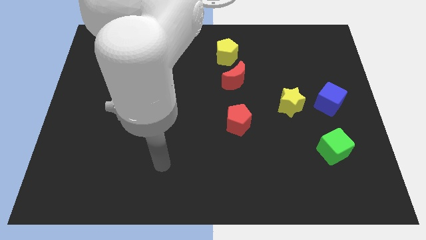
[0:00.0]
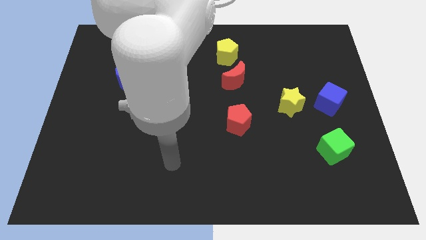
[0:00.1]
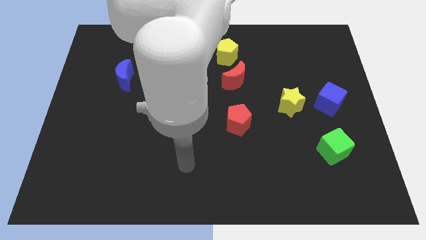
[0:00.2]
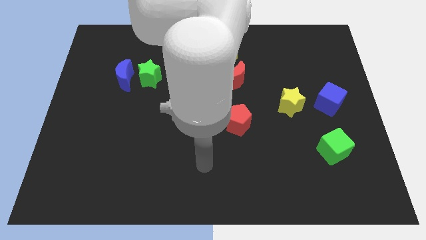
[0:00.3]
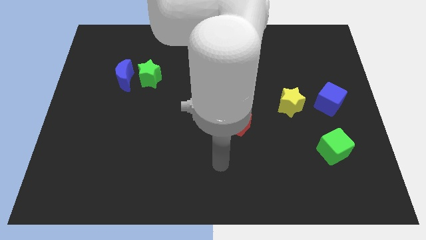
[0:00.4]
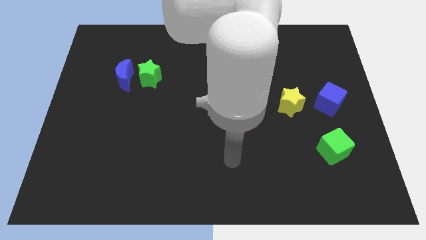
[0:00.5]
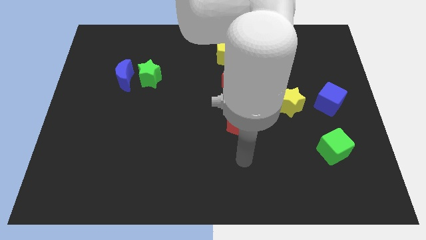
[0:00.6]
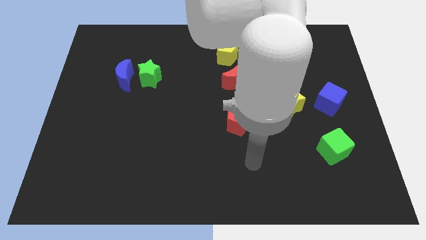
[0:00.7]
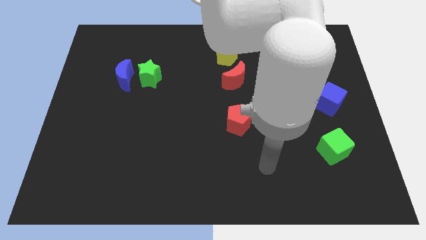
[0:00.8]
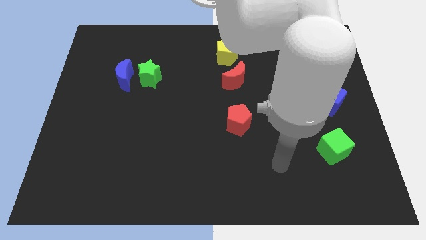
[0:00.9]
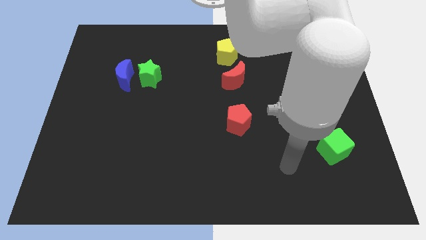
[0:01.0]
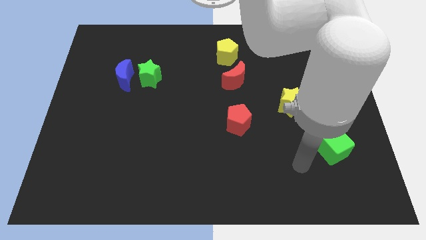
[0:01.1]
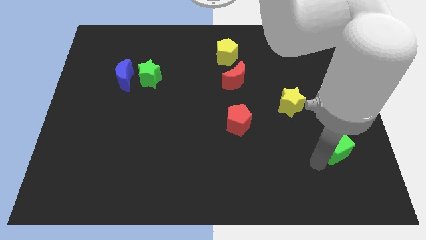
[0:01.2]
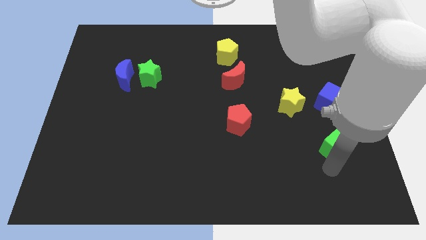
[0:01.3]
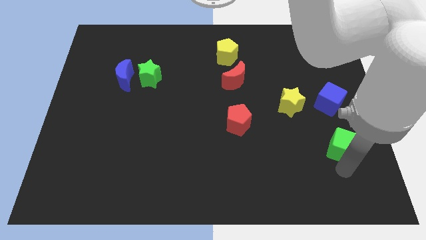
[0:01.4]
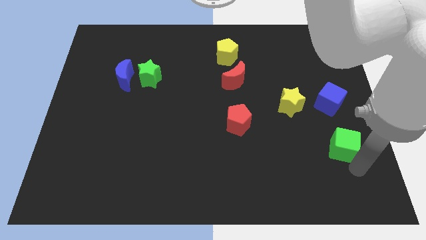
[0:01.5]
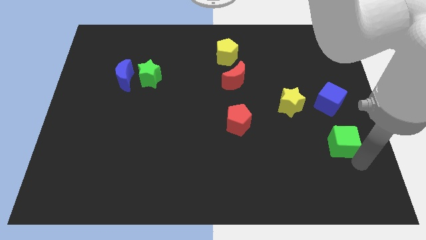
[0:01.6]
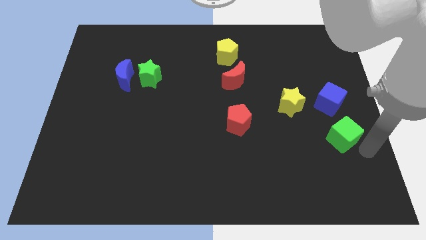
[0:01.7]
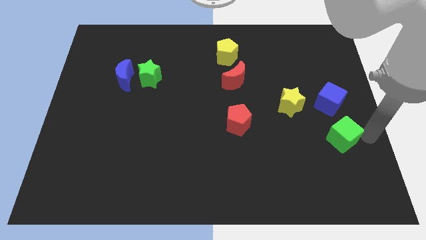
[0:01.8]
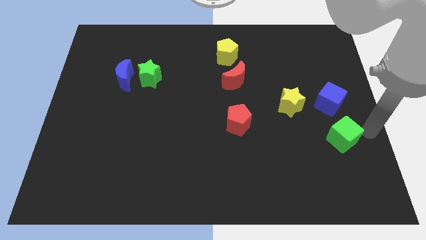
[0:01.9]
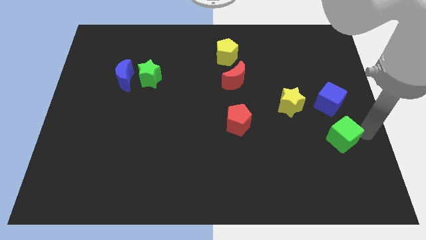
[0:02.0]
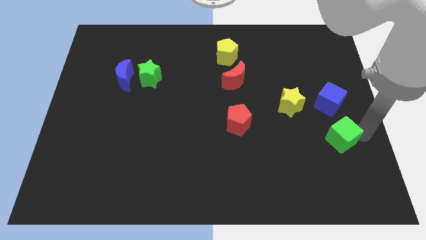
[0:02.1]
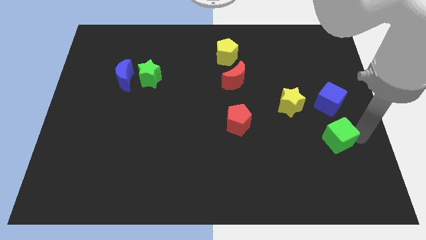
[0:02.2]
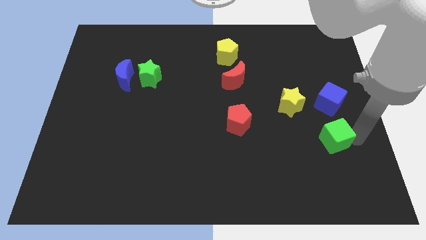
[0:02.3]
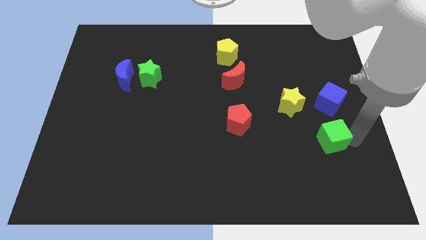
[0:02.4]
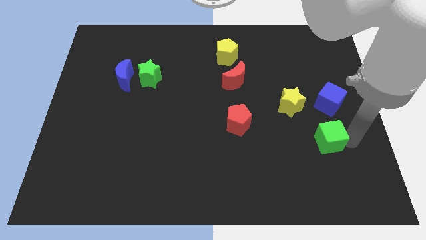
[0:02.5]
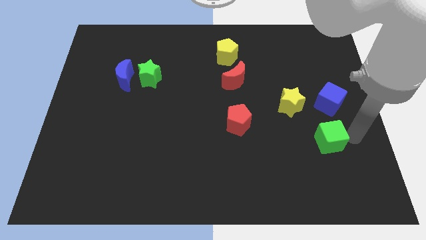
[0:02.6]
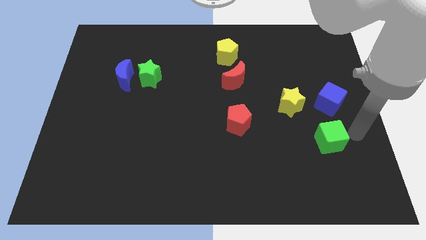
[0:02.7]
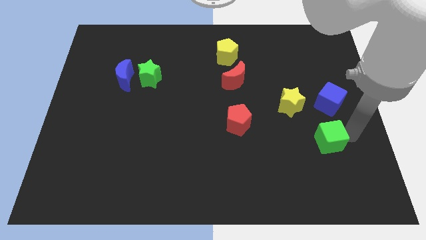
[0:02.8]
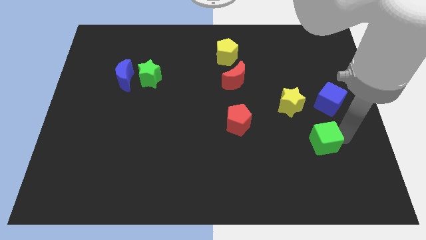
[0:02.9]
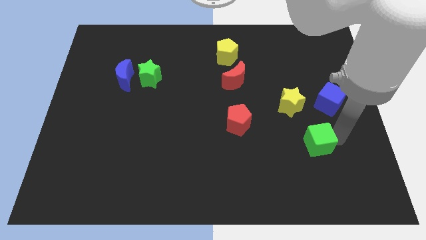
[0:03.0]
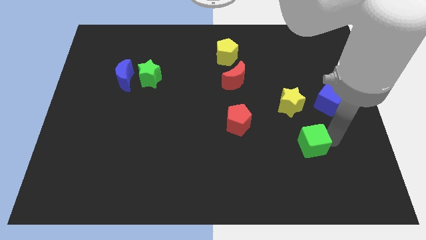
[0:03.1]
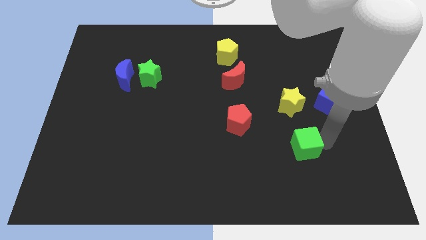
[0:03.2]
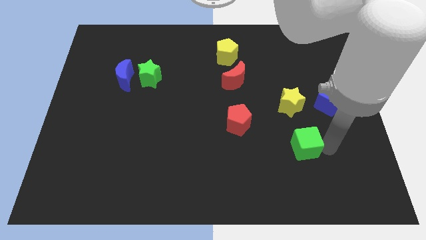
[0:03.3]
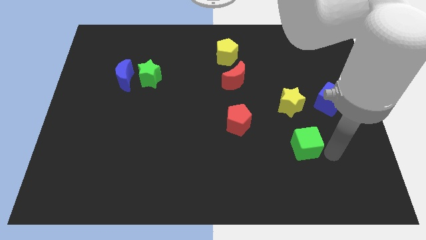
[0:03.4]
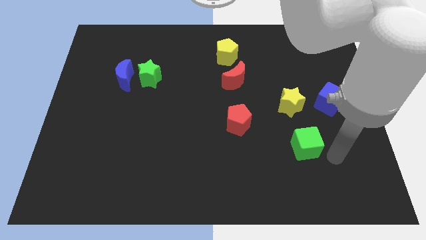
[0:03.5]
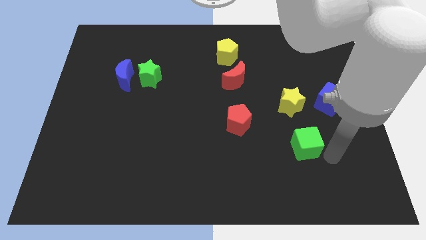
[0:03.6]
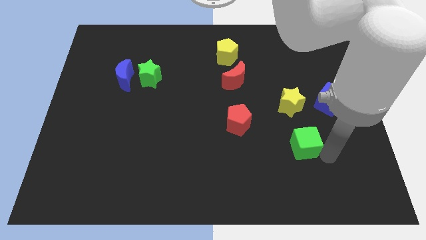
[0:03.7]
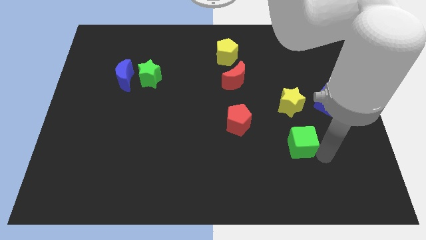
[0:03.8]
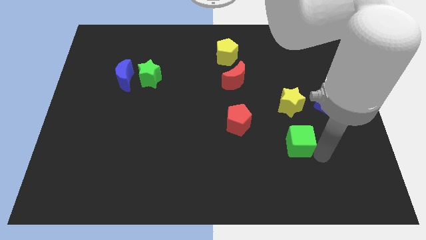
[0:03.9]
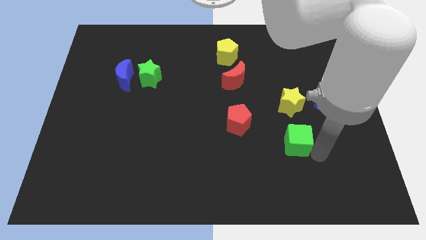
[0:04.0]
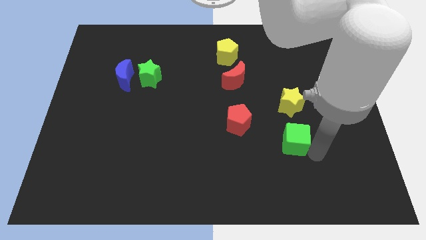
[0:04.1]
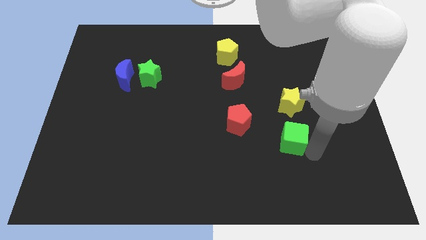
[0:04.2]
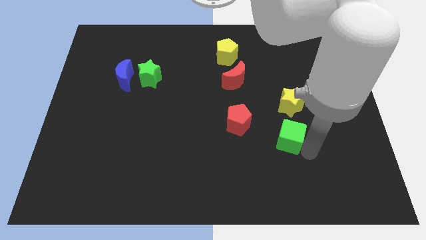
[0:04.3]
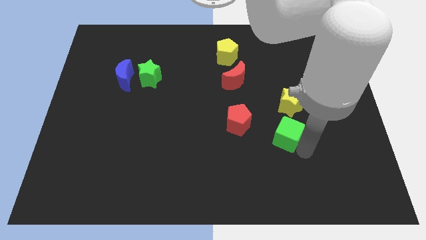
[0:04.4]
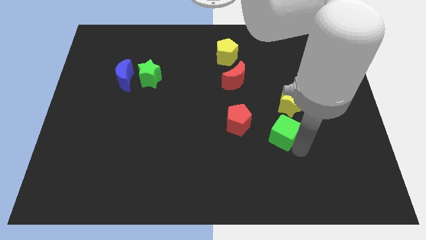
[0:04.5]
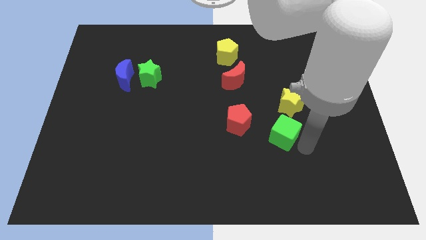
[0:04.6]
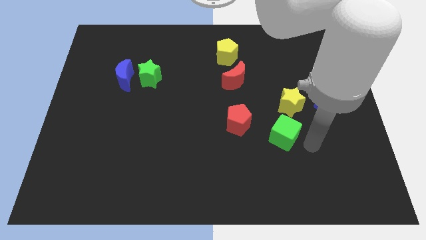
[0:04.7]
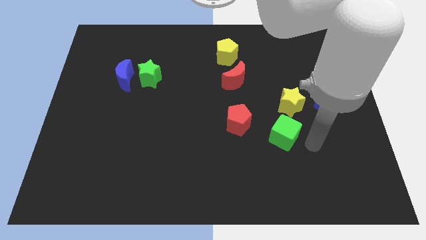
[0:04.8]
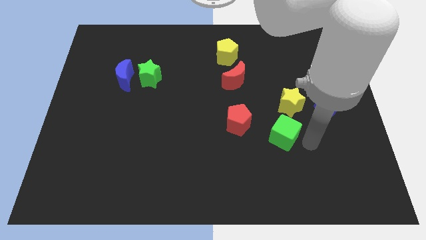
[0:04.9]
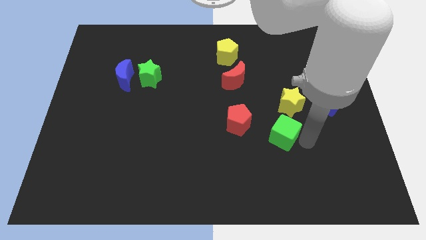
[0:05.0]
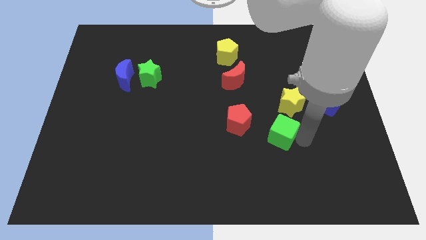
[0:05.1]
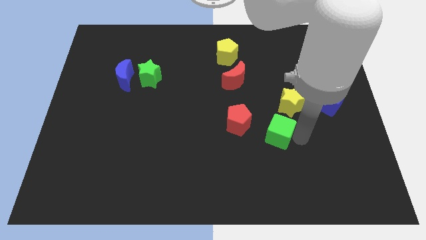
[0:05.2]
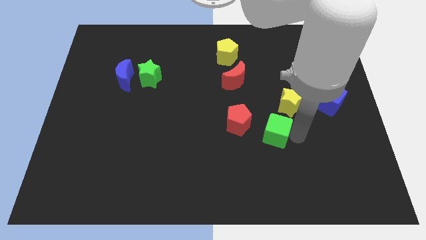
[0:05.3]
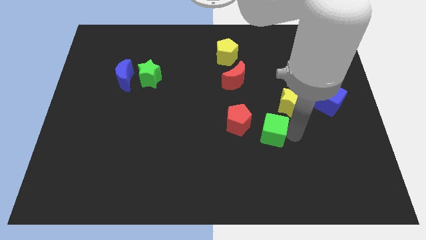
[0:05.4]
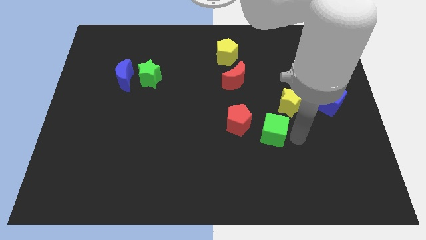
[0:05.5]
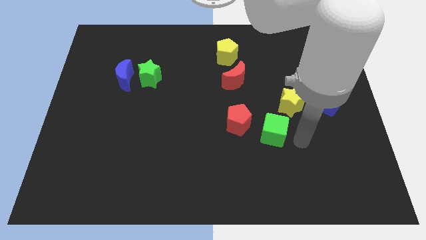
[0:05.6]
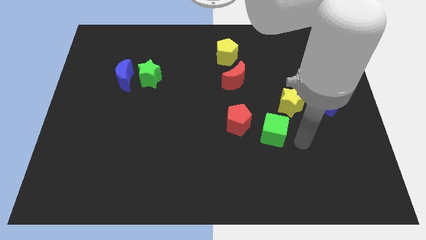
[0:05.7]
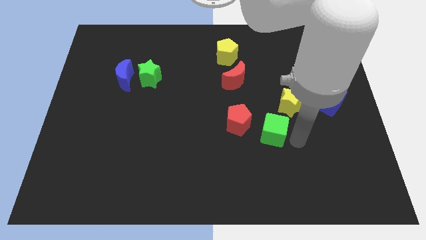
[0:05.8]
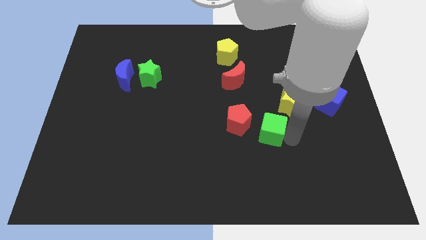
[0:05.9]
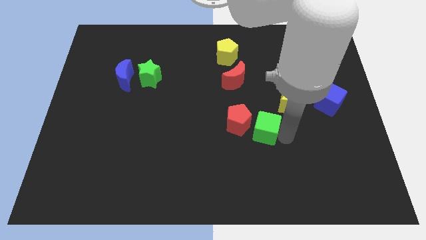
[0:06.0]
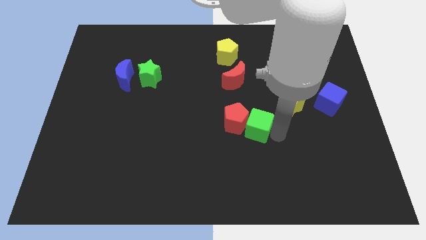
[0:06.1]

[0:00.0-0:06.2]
move the green cube towards the red pentagon

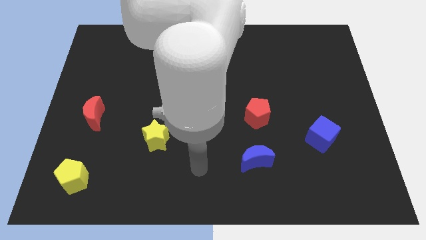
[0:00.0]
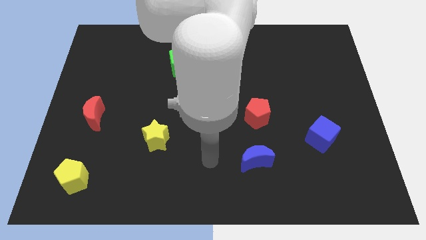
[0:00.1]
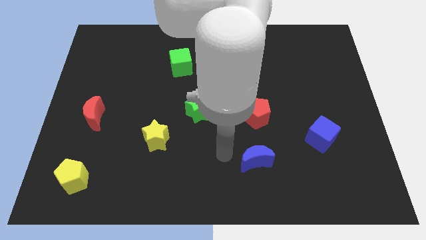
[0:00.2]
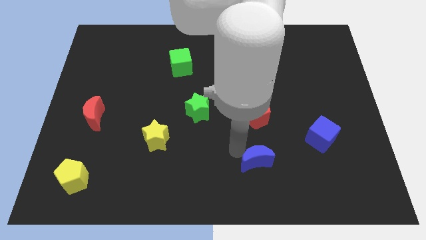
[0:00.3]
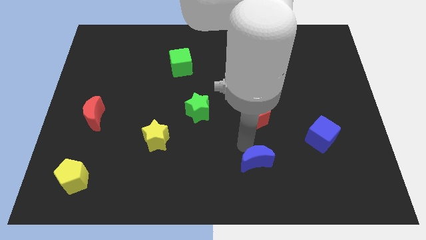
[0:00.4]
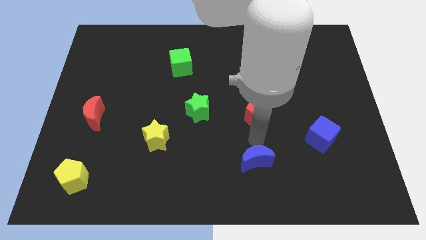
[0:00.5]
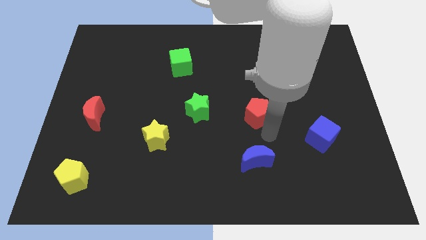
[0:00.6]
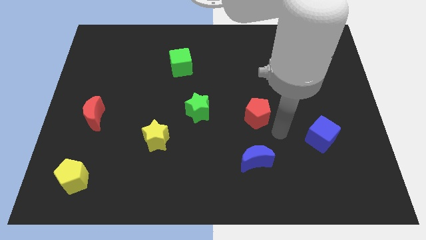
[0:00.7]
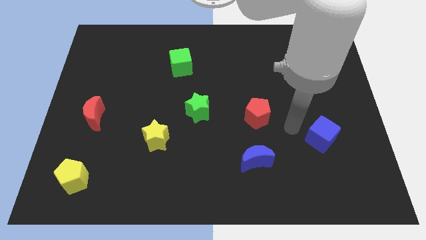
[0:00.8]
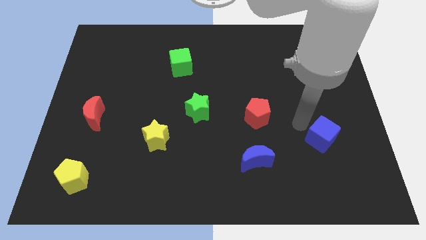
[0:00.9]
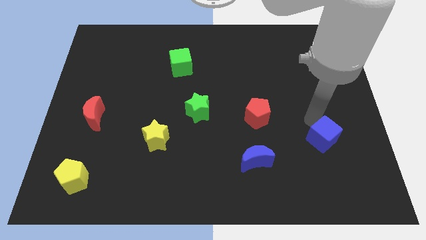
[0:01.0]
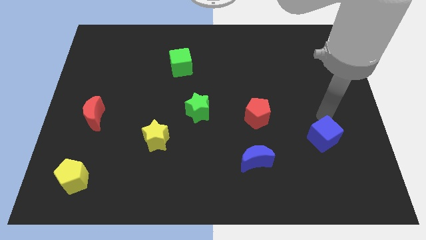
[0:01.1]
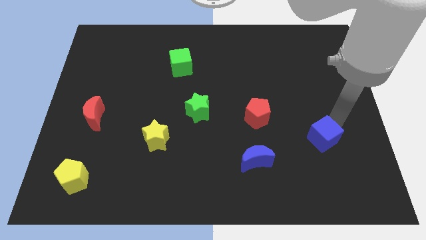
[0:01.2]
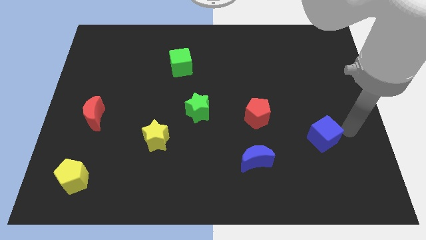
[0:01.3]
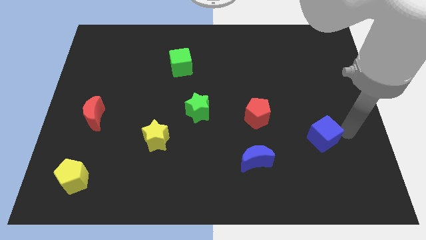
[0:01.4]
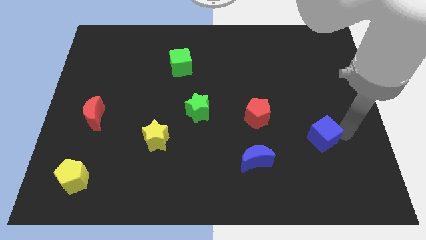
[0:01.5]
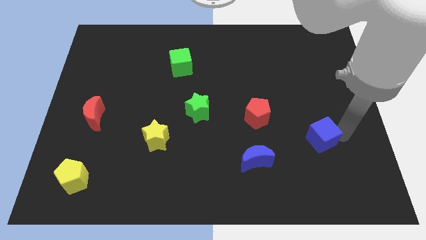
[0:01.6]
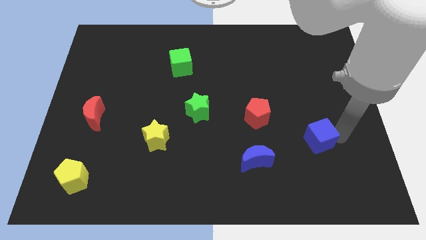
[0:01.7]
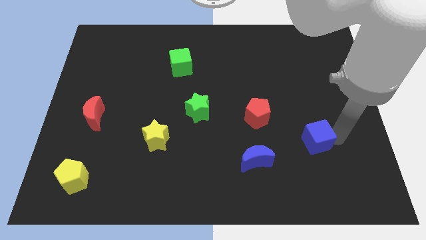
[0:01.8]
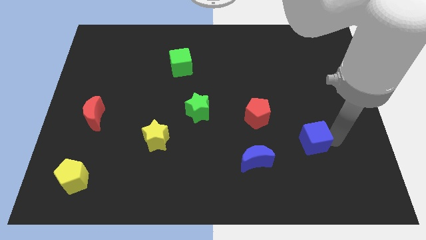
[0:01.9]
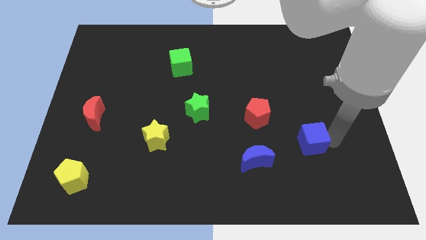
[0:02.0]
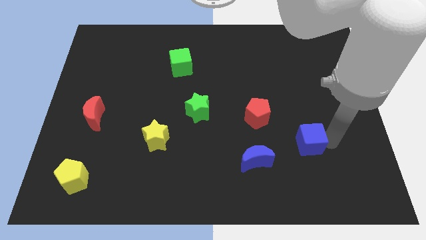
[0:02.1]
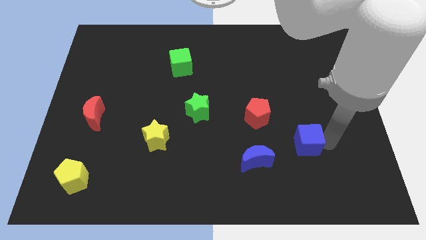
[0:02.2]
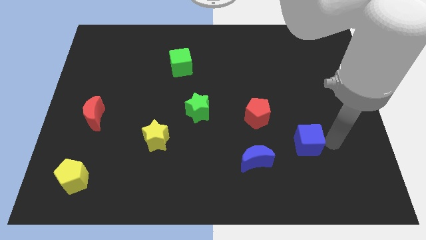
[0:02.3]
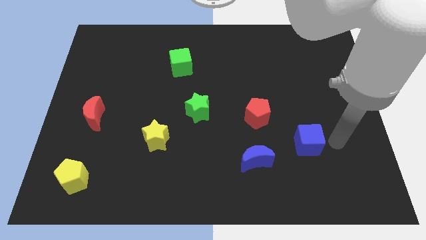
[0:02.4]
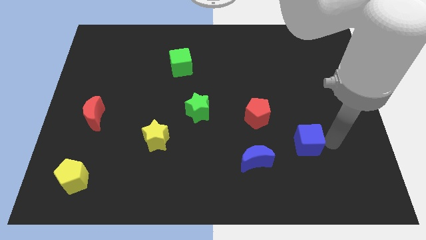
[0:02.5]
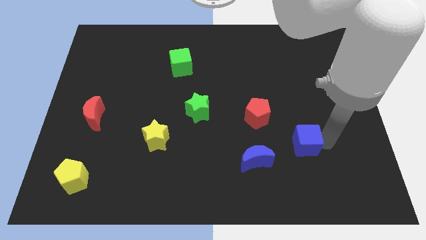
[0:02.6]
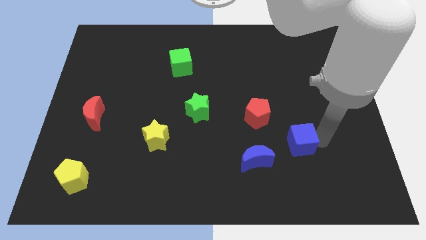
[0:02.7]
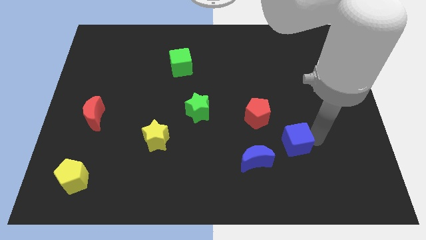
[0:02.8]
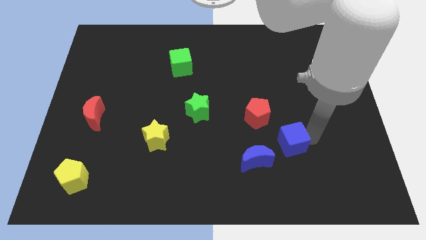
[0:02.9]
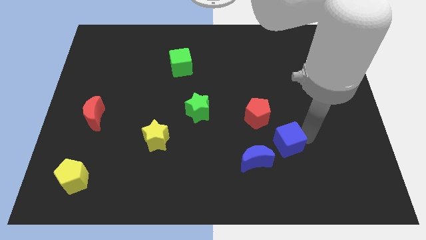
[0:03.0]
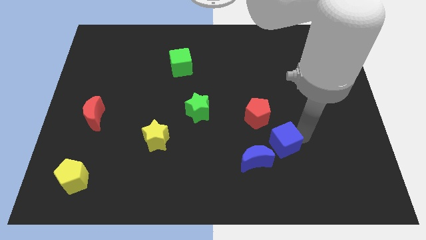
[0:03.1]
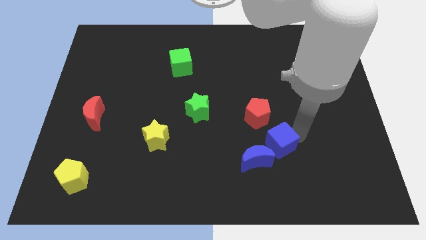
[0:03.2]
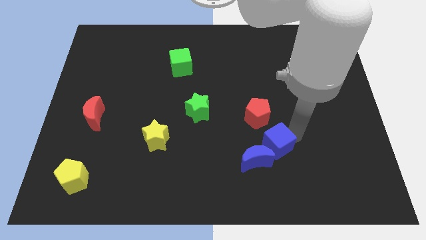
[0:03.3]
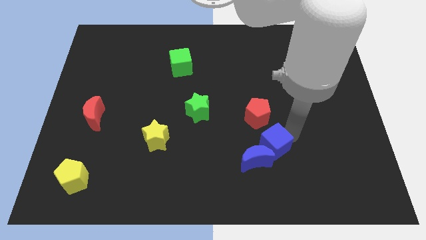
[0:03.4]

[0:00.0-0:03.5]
slide the blue cube to the blue moon
